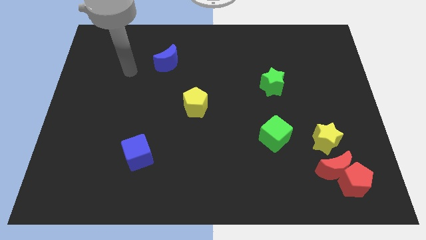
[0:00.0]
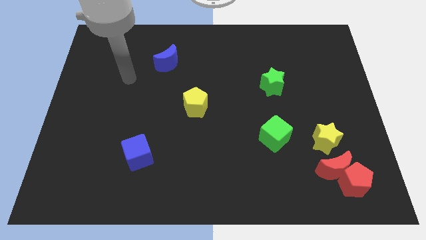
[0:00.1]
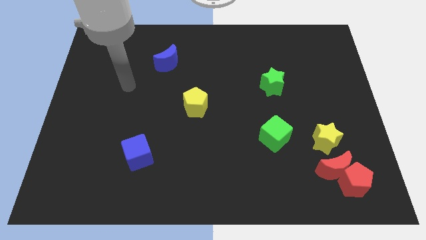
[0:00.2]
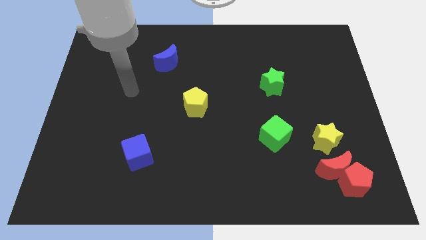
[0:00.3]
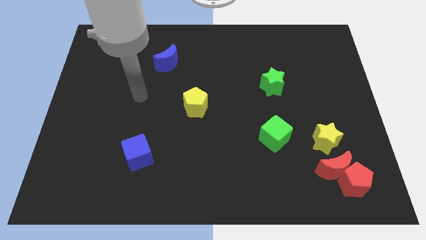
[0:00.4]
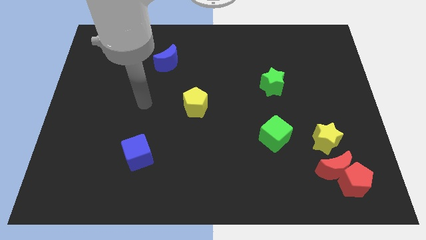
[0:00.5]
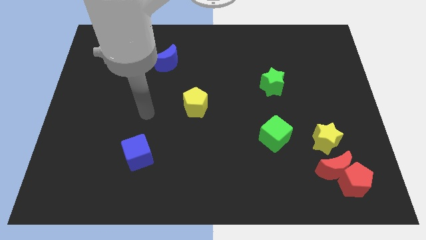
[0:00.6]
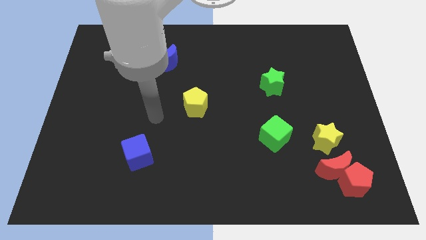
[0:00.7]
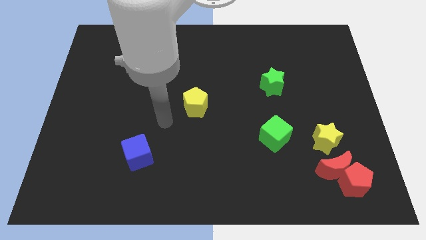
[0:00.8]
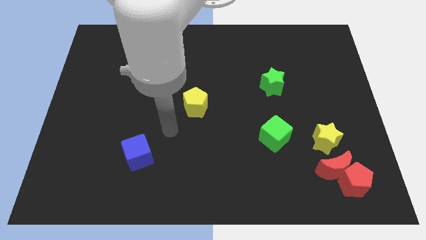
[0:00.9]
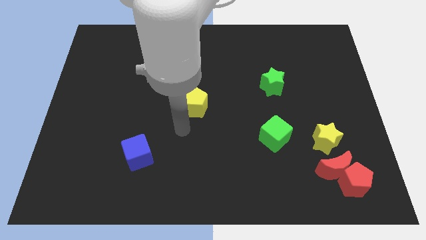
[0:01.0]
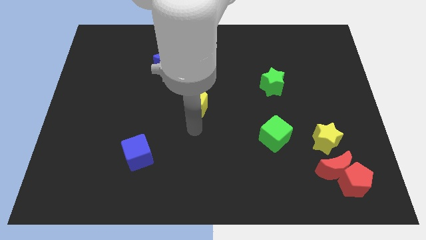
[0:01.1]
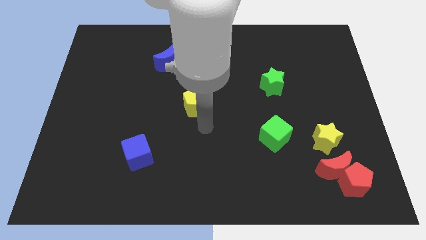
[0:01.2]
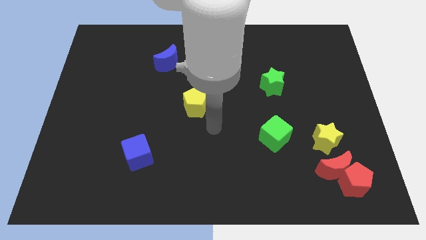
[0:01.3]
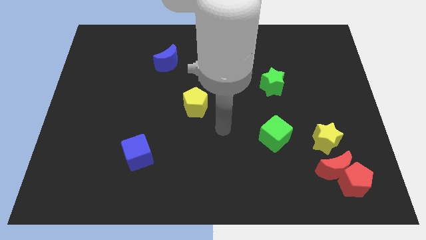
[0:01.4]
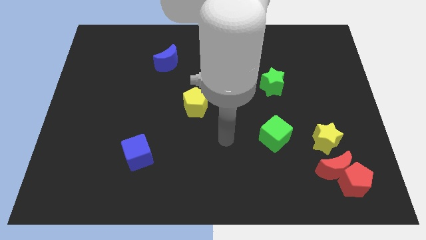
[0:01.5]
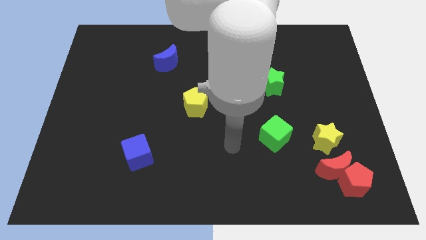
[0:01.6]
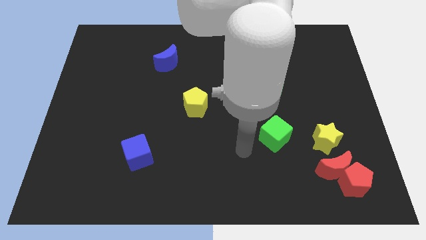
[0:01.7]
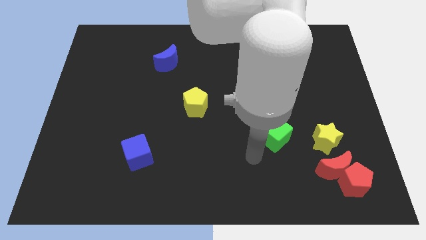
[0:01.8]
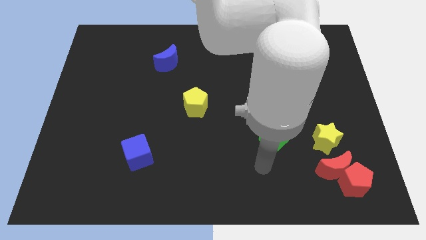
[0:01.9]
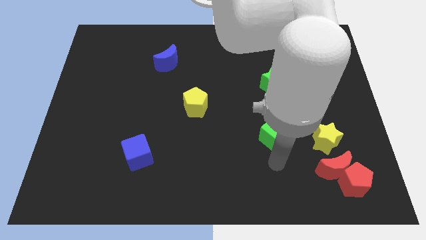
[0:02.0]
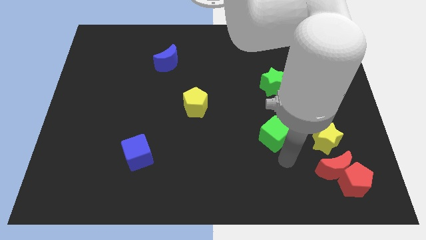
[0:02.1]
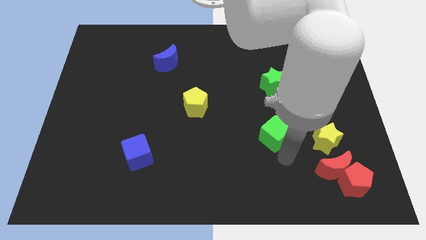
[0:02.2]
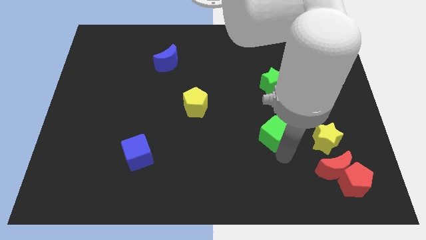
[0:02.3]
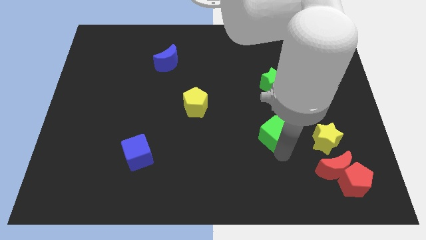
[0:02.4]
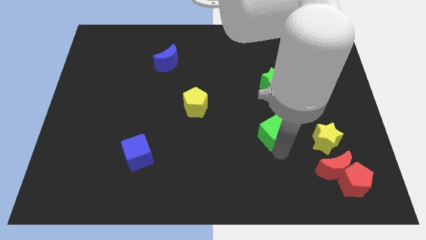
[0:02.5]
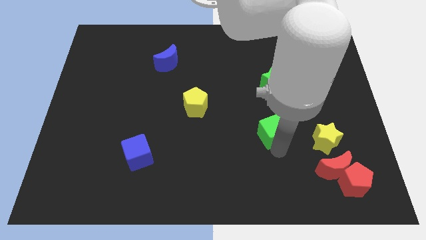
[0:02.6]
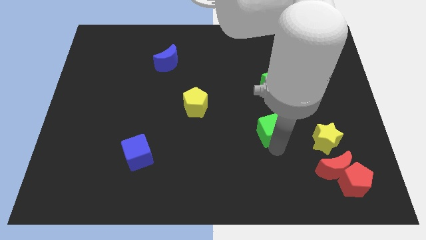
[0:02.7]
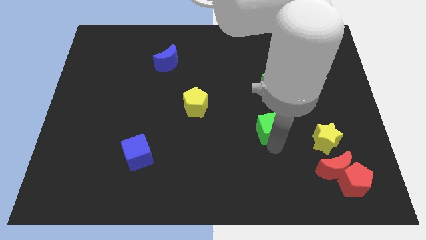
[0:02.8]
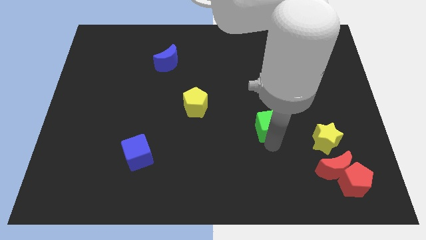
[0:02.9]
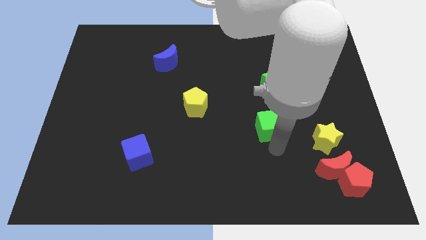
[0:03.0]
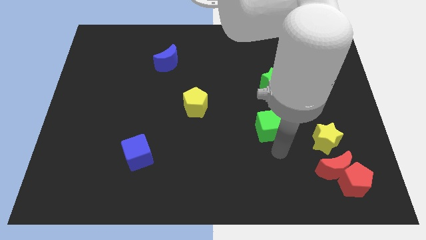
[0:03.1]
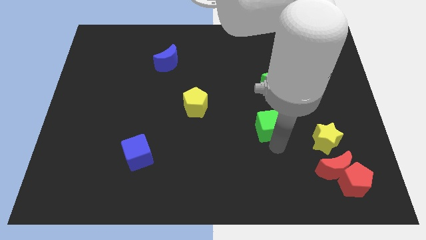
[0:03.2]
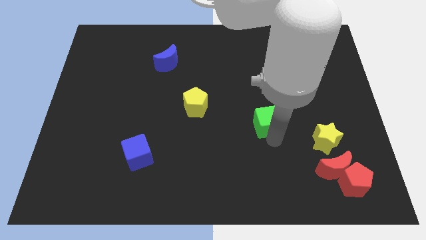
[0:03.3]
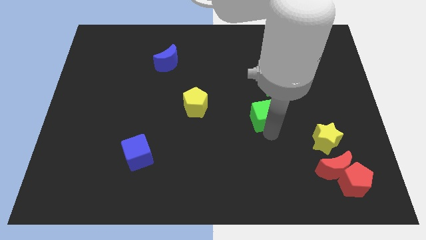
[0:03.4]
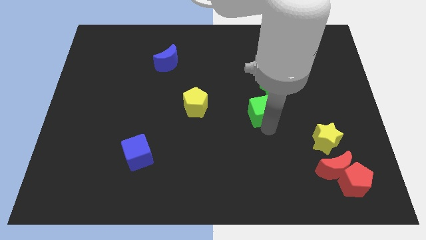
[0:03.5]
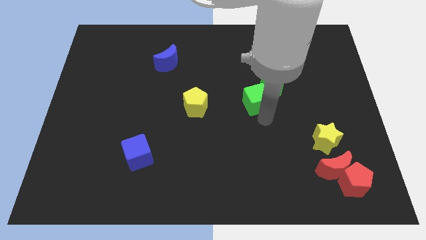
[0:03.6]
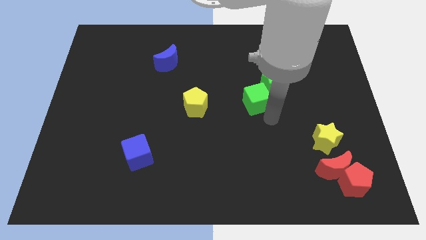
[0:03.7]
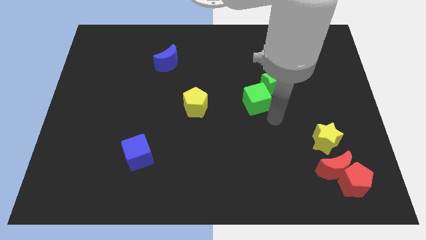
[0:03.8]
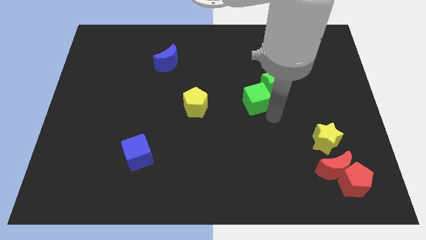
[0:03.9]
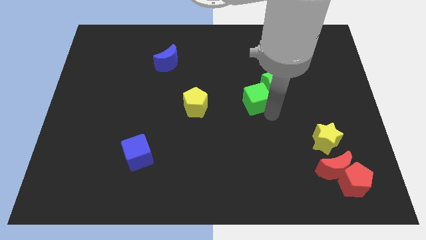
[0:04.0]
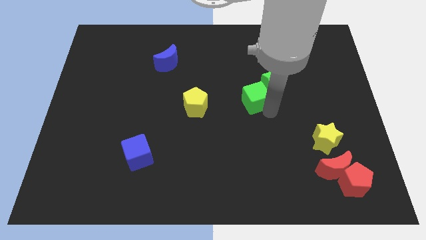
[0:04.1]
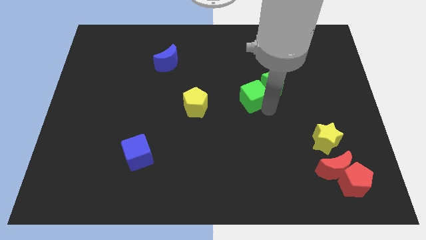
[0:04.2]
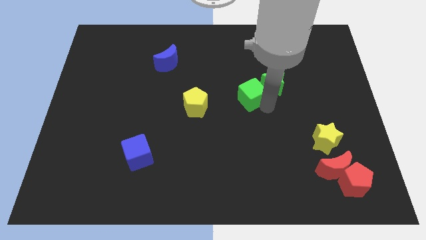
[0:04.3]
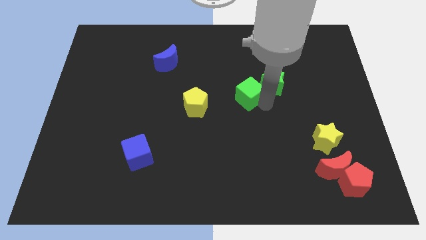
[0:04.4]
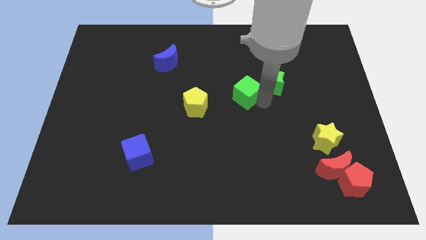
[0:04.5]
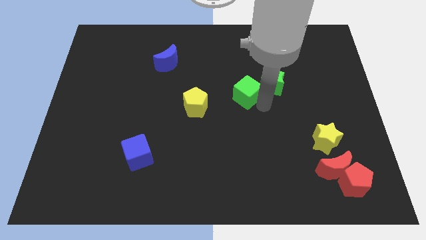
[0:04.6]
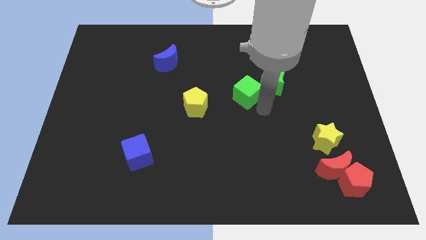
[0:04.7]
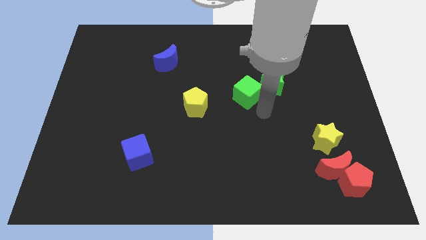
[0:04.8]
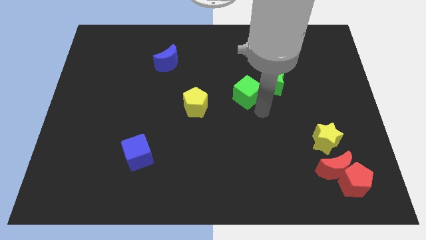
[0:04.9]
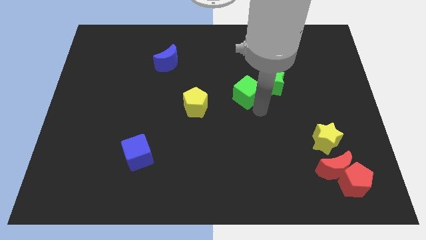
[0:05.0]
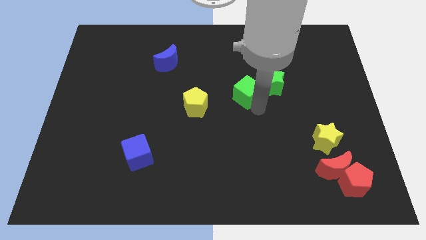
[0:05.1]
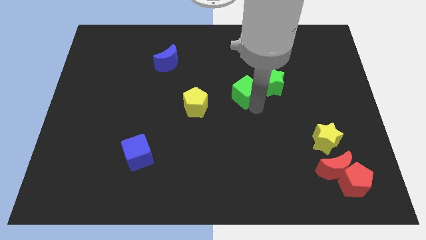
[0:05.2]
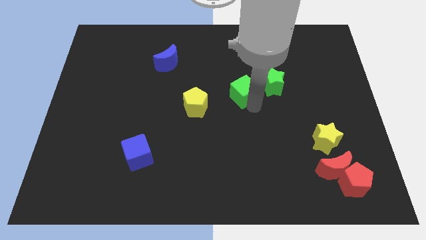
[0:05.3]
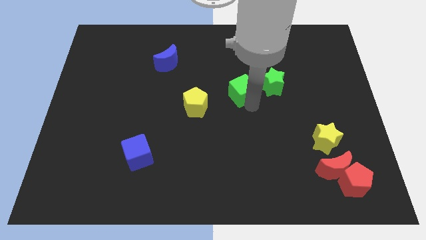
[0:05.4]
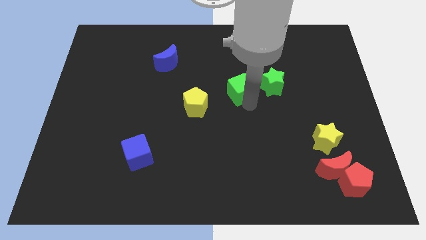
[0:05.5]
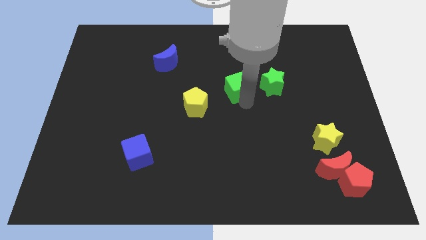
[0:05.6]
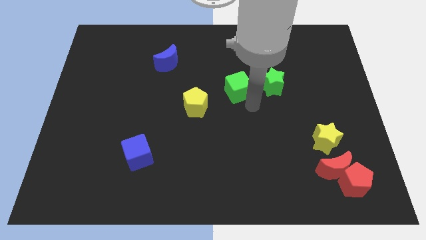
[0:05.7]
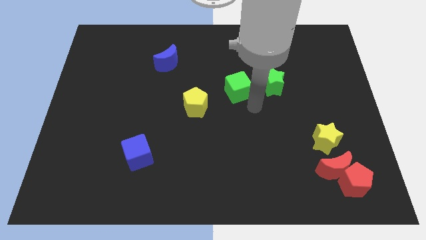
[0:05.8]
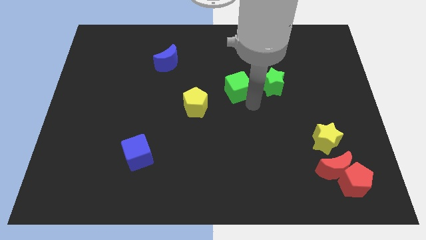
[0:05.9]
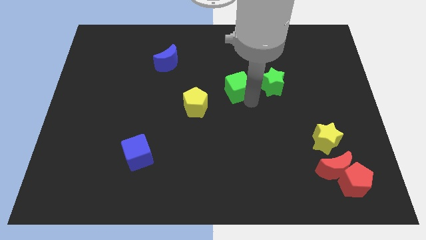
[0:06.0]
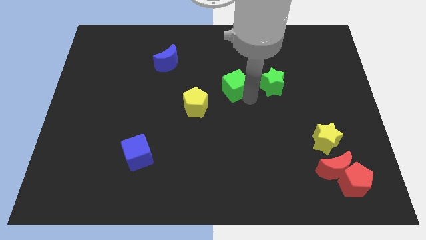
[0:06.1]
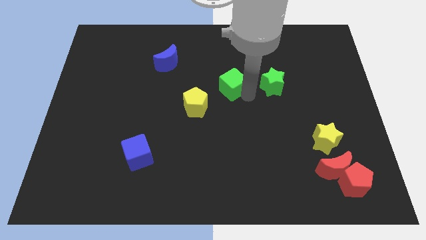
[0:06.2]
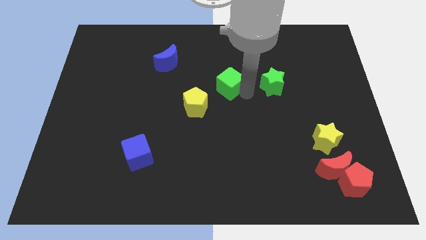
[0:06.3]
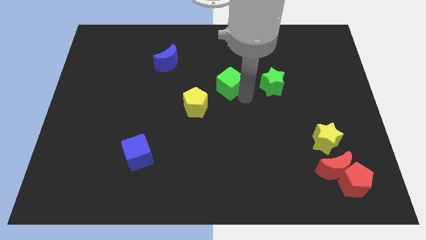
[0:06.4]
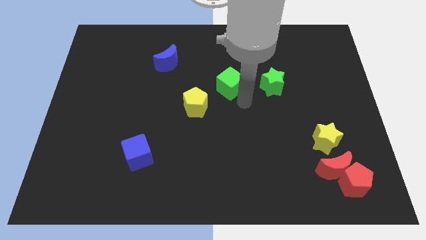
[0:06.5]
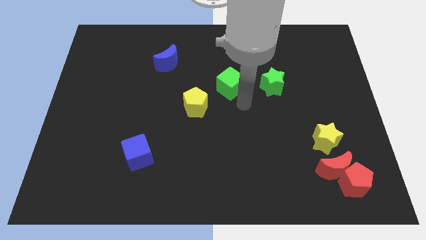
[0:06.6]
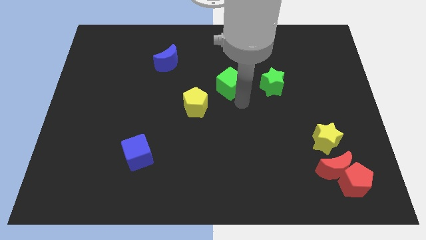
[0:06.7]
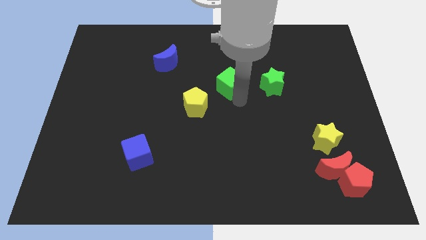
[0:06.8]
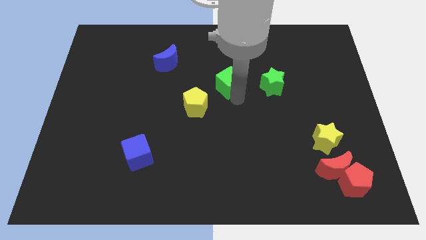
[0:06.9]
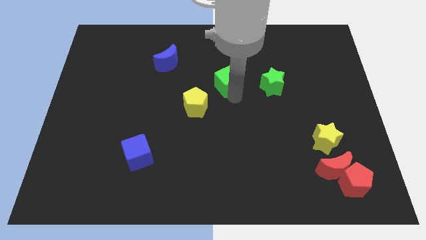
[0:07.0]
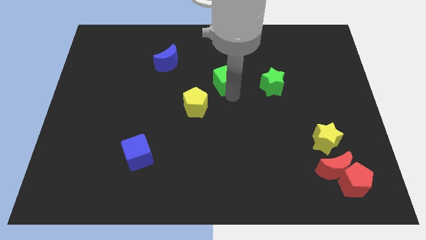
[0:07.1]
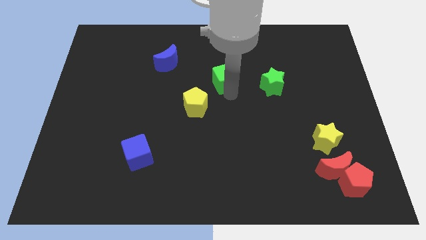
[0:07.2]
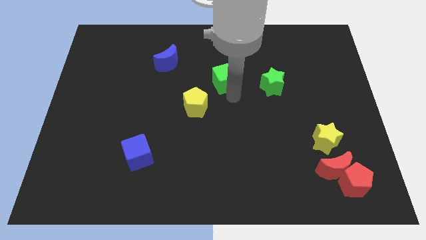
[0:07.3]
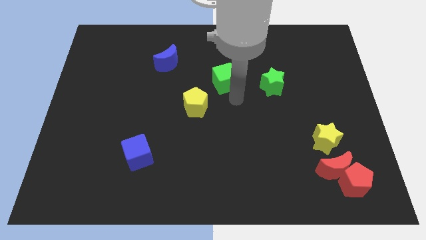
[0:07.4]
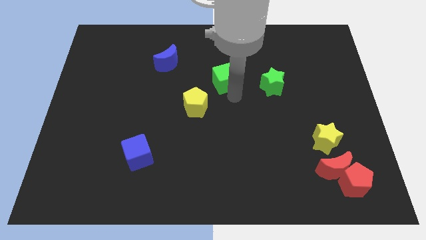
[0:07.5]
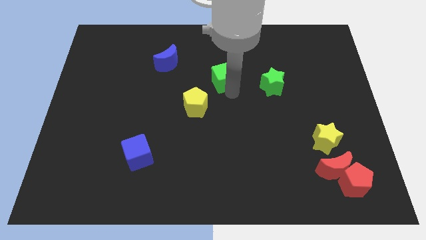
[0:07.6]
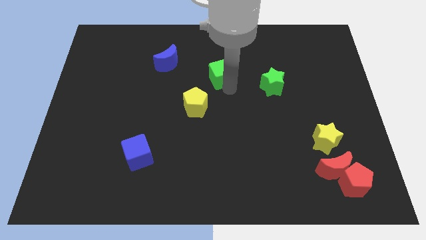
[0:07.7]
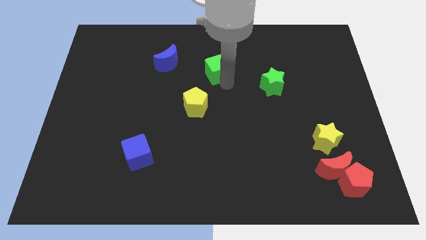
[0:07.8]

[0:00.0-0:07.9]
move the green cube to the right side of the blue moon
